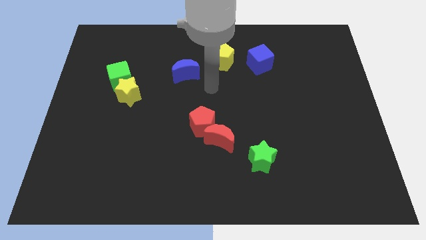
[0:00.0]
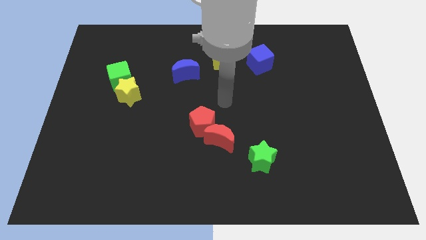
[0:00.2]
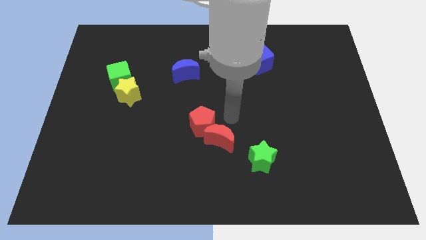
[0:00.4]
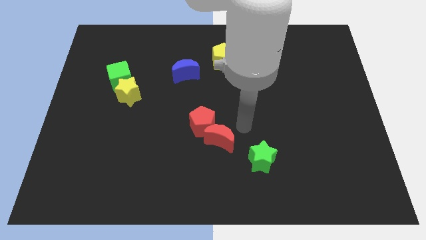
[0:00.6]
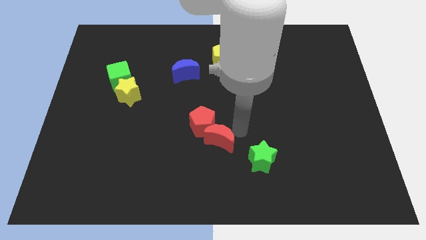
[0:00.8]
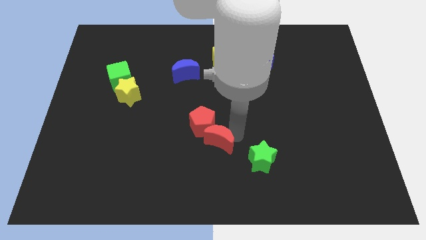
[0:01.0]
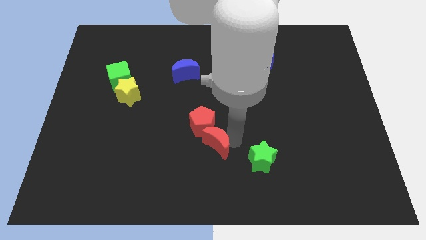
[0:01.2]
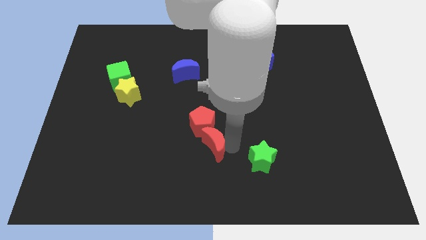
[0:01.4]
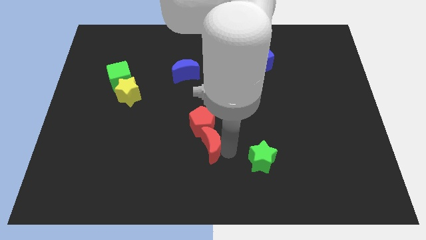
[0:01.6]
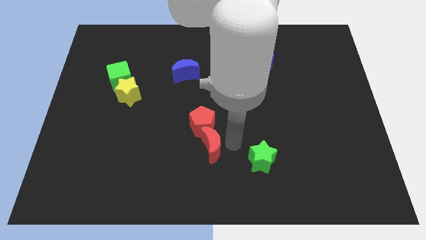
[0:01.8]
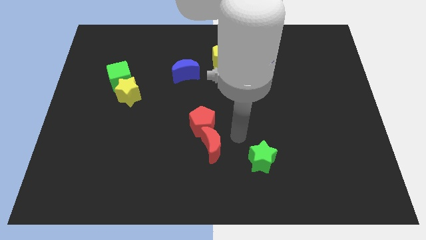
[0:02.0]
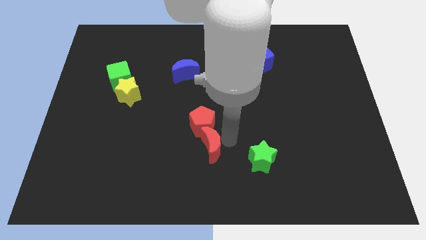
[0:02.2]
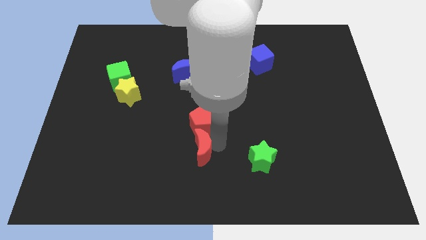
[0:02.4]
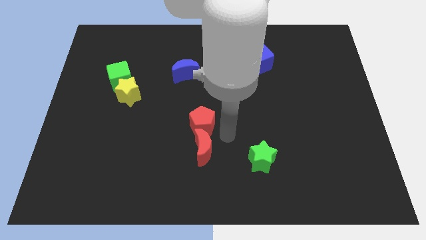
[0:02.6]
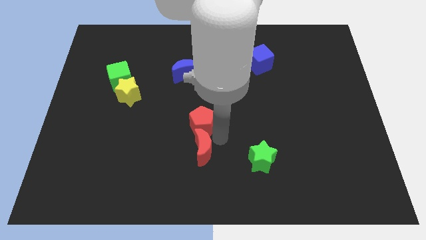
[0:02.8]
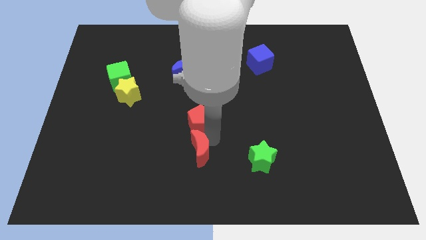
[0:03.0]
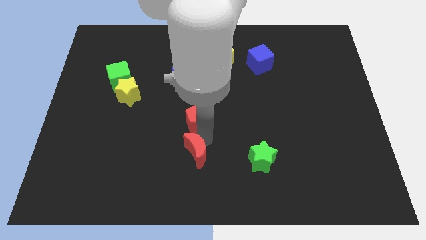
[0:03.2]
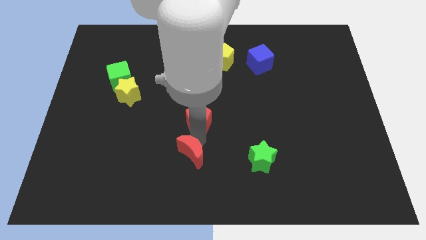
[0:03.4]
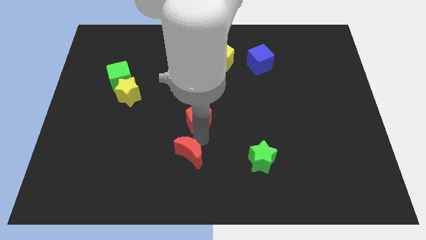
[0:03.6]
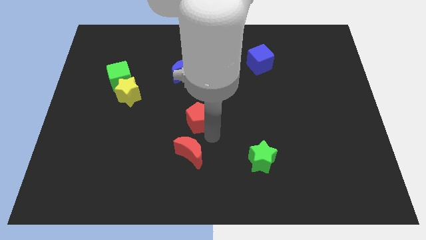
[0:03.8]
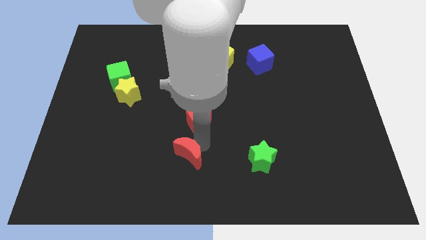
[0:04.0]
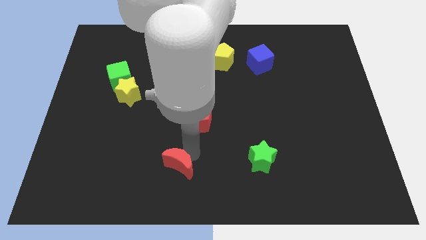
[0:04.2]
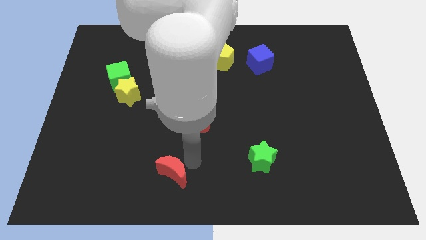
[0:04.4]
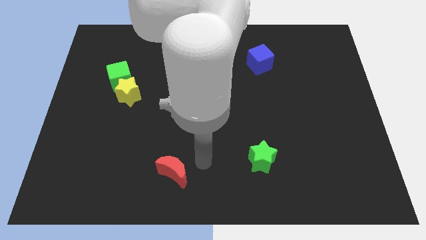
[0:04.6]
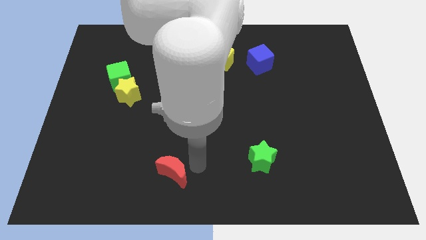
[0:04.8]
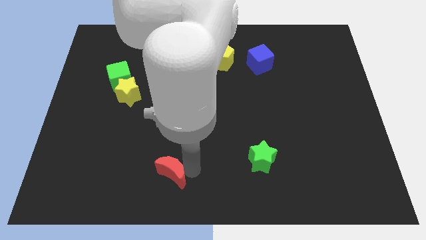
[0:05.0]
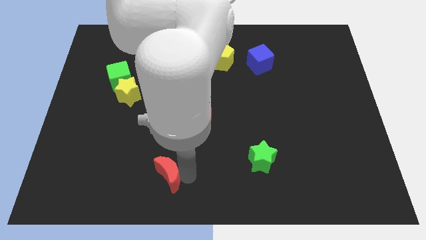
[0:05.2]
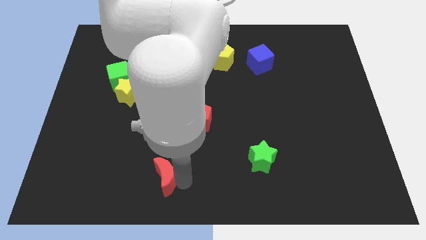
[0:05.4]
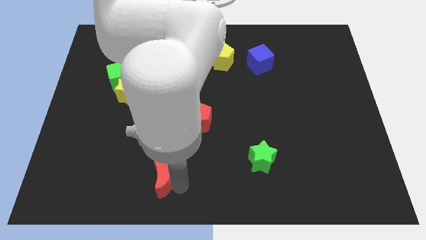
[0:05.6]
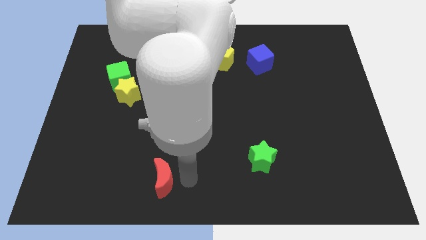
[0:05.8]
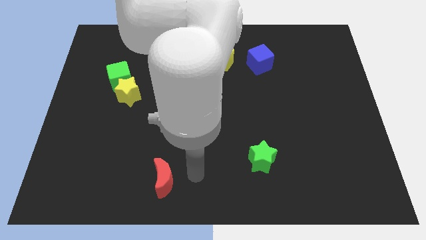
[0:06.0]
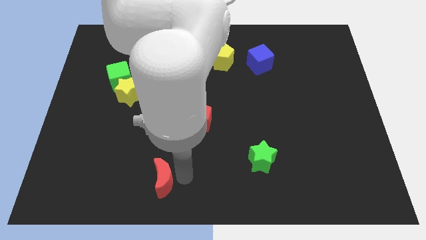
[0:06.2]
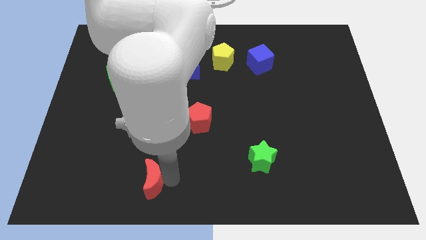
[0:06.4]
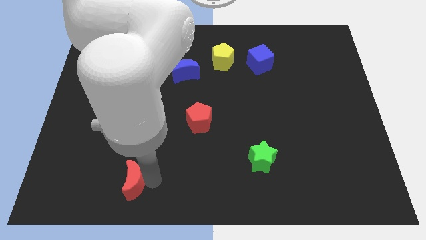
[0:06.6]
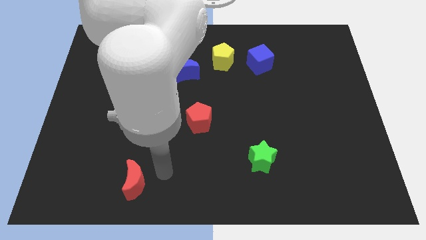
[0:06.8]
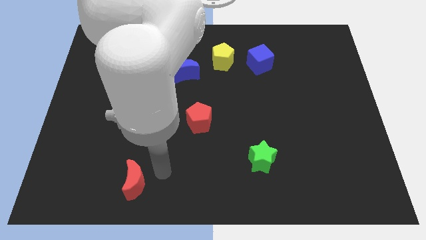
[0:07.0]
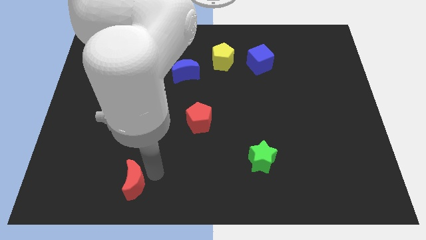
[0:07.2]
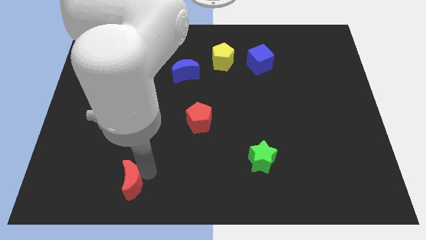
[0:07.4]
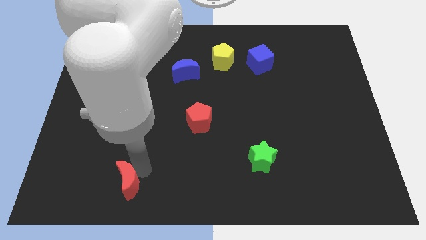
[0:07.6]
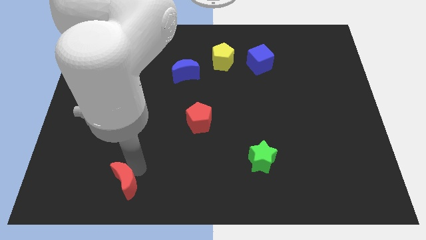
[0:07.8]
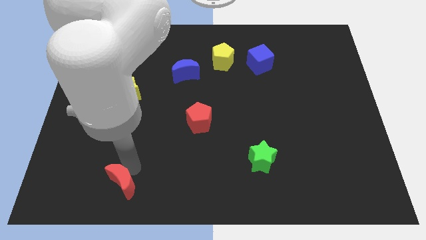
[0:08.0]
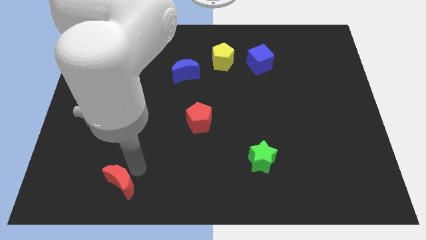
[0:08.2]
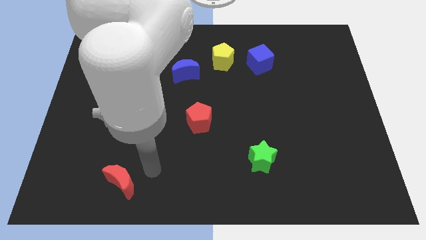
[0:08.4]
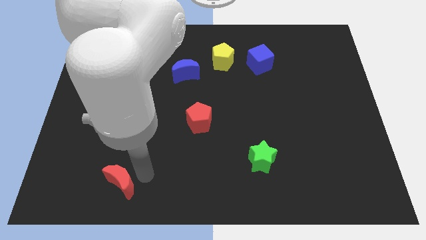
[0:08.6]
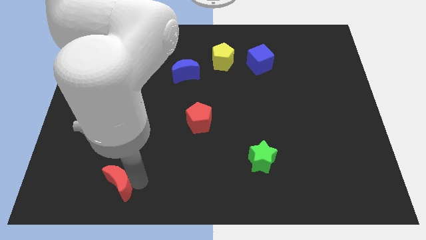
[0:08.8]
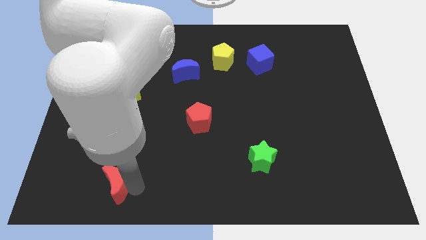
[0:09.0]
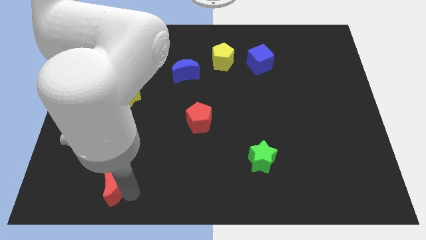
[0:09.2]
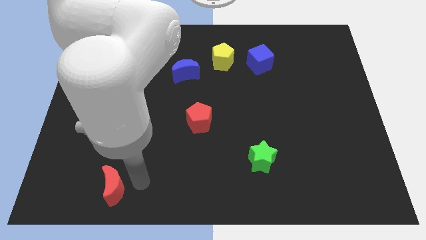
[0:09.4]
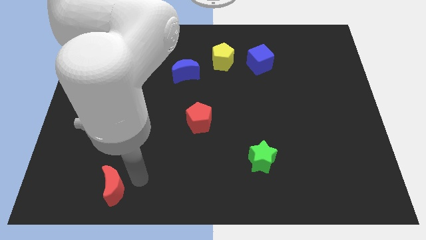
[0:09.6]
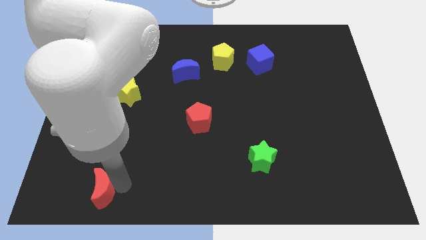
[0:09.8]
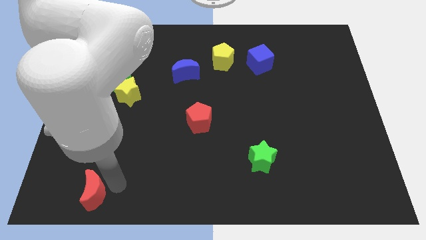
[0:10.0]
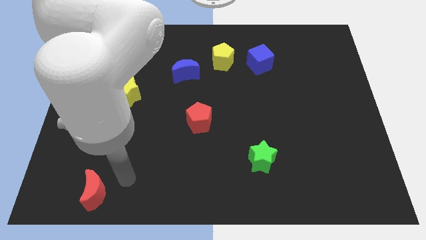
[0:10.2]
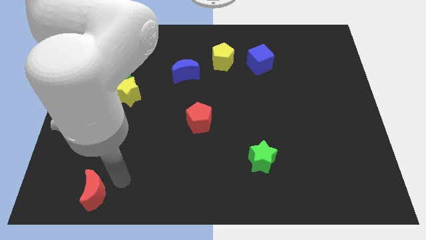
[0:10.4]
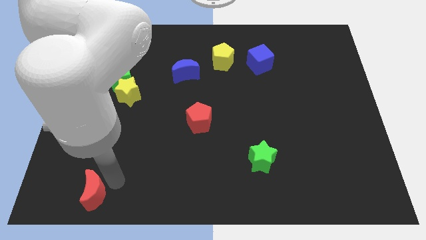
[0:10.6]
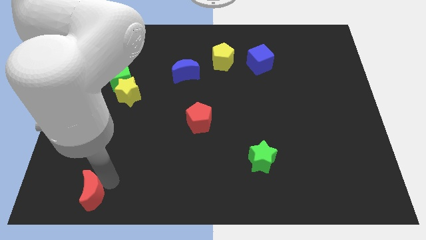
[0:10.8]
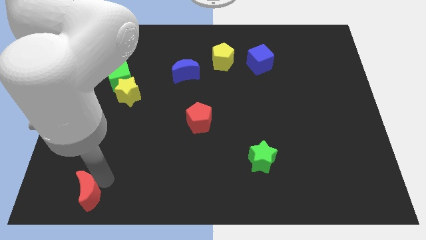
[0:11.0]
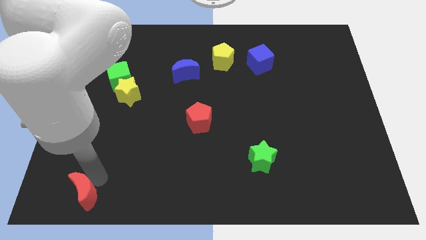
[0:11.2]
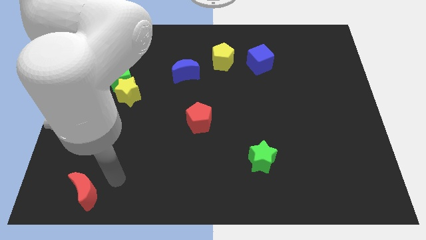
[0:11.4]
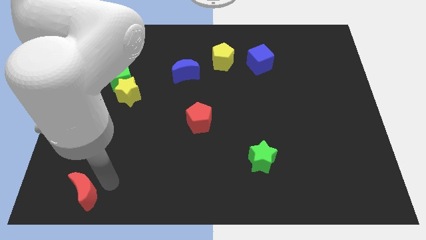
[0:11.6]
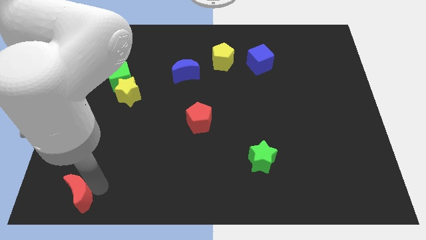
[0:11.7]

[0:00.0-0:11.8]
put the red moon to the bottom left of the board
